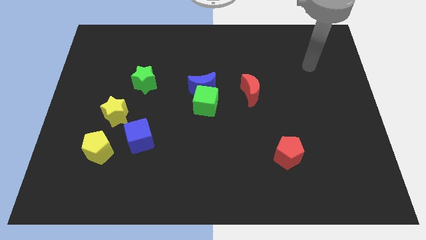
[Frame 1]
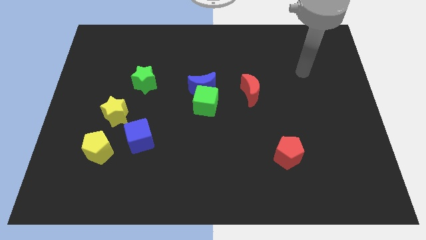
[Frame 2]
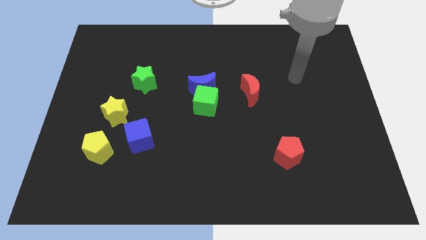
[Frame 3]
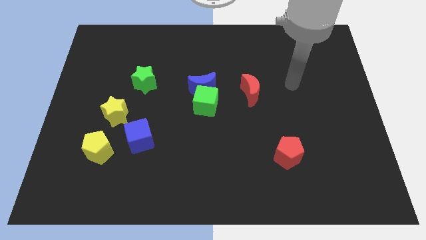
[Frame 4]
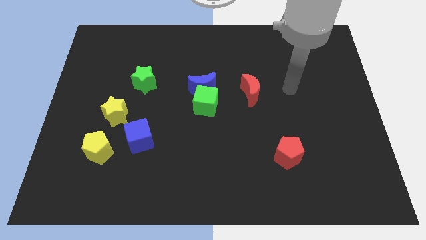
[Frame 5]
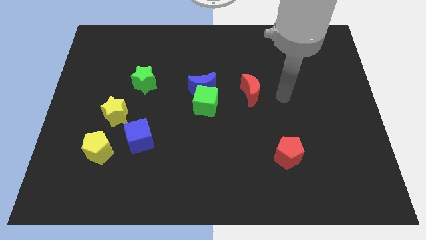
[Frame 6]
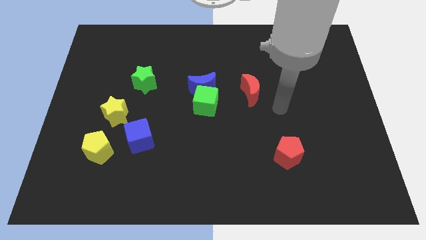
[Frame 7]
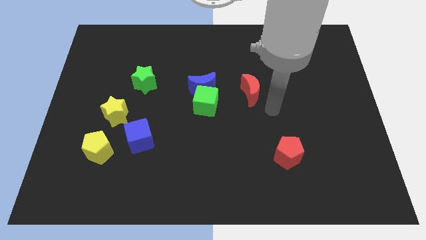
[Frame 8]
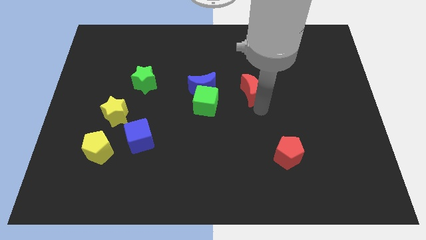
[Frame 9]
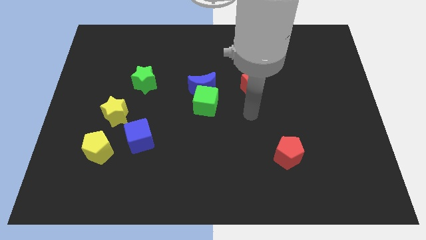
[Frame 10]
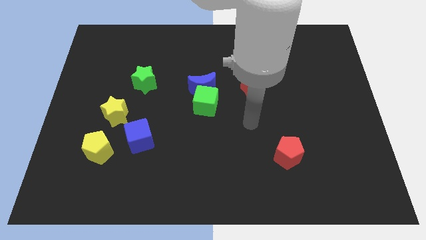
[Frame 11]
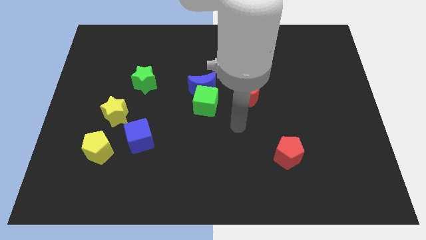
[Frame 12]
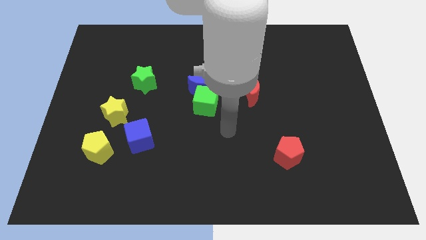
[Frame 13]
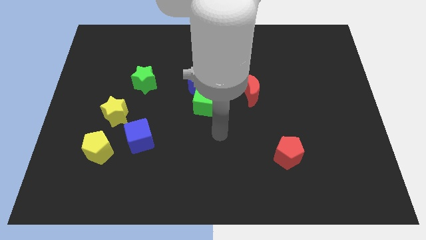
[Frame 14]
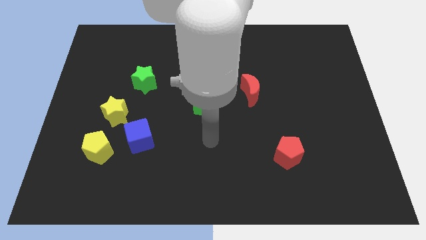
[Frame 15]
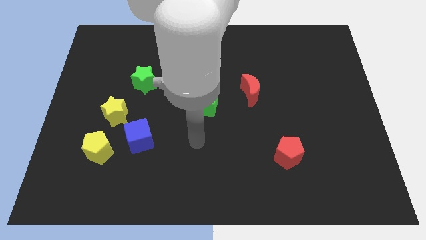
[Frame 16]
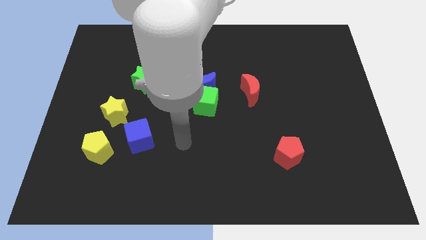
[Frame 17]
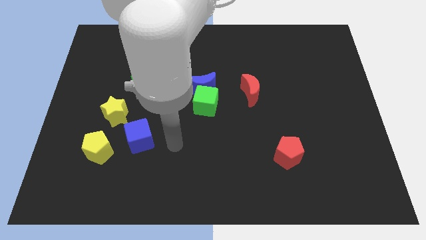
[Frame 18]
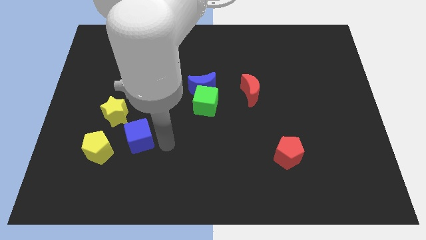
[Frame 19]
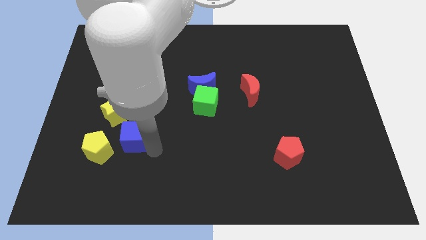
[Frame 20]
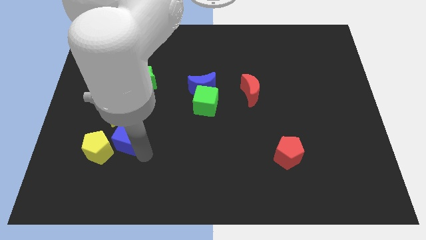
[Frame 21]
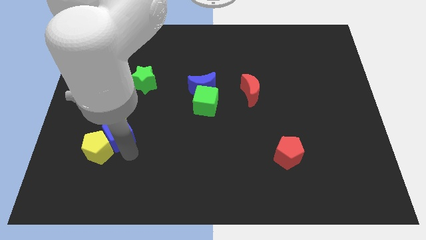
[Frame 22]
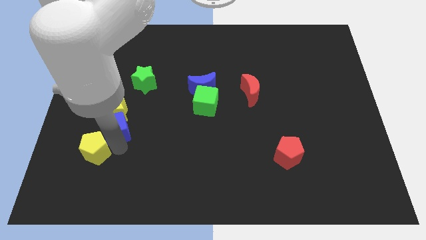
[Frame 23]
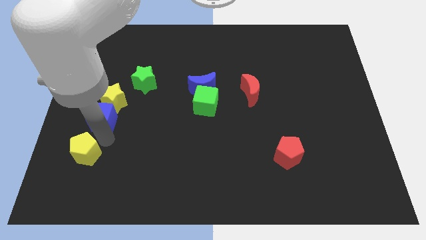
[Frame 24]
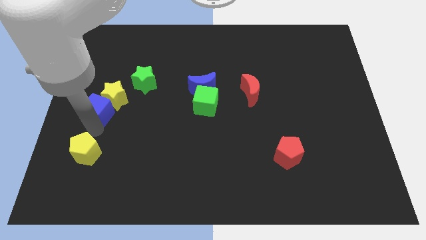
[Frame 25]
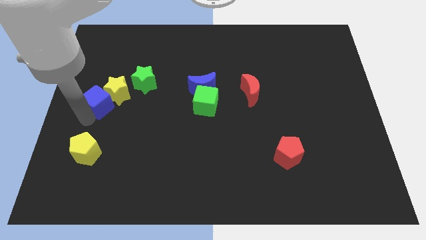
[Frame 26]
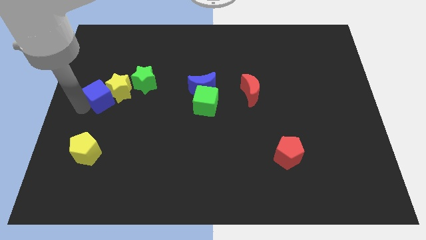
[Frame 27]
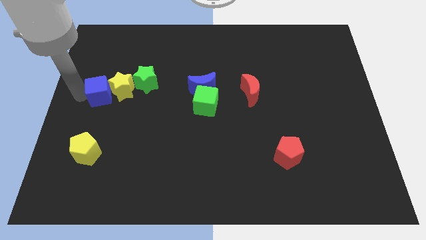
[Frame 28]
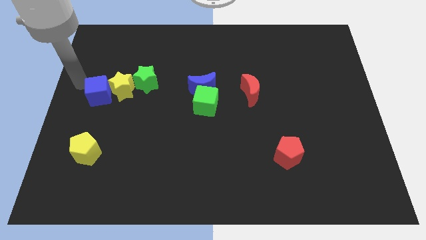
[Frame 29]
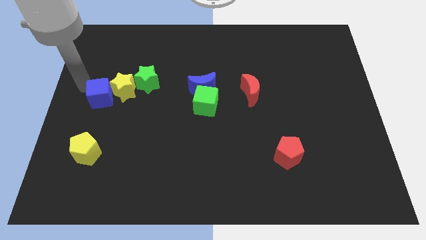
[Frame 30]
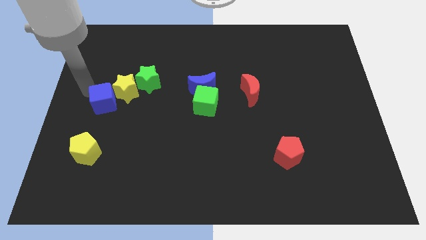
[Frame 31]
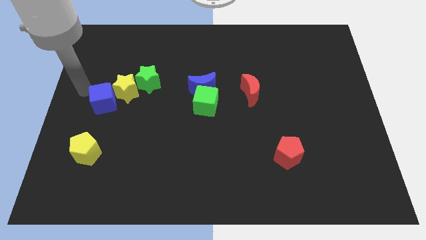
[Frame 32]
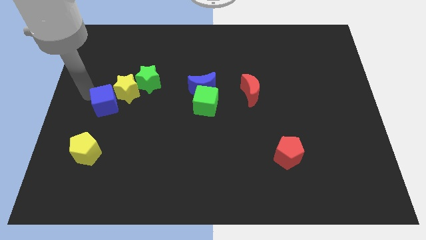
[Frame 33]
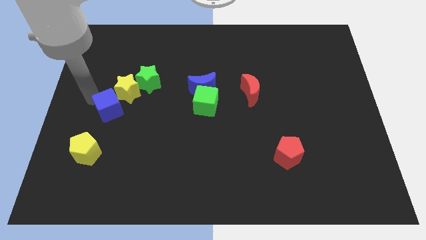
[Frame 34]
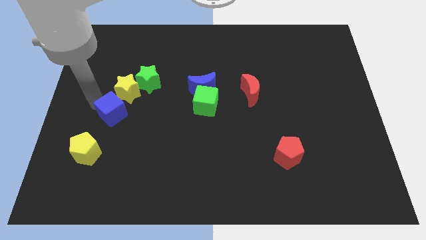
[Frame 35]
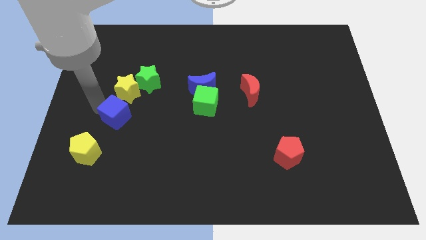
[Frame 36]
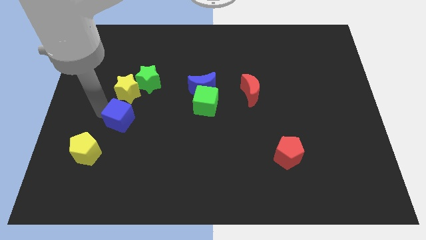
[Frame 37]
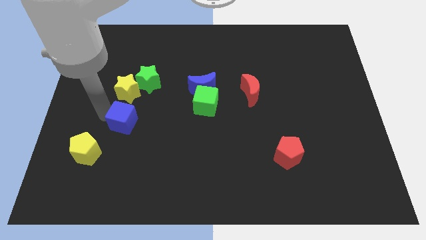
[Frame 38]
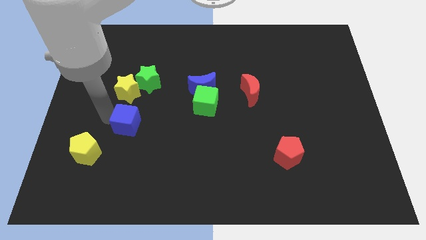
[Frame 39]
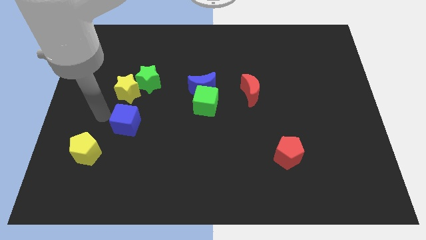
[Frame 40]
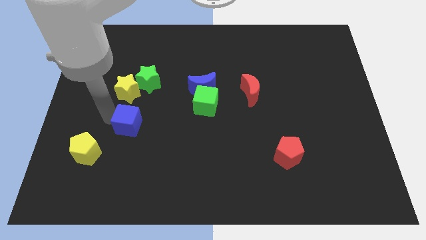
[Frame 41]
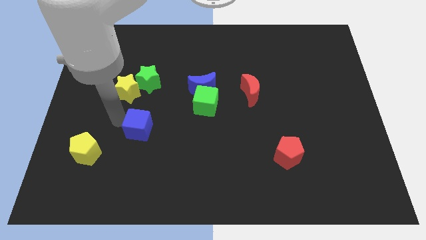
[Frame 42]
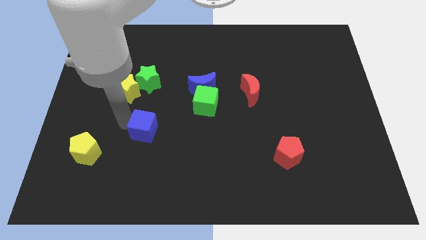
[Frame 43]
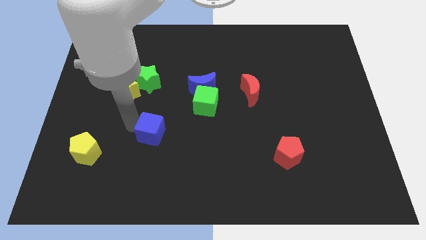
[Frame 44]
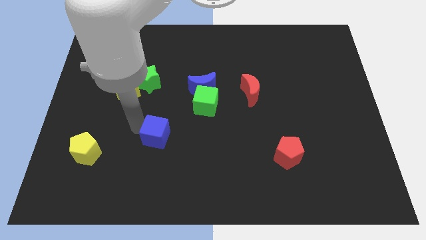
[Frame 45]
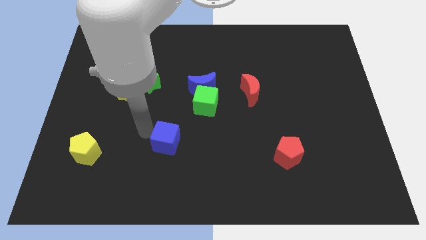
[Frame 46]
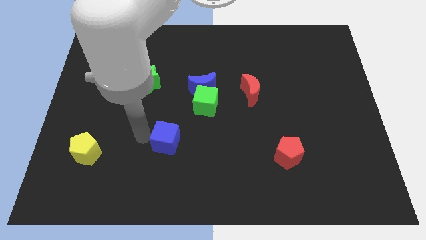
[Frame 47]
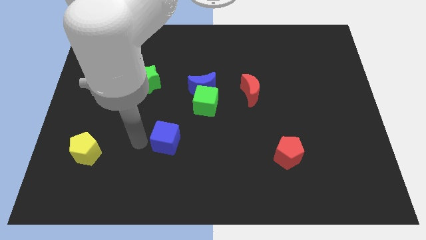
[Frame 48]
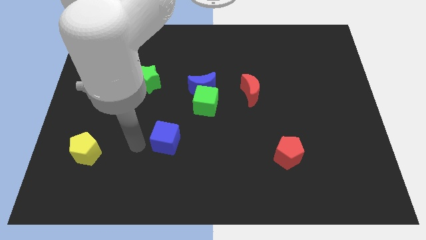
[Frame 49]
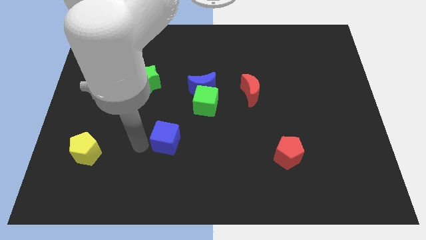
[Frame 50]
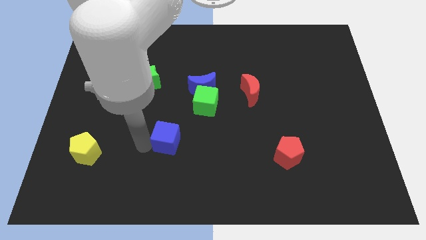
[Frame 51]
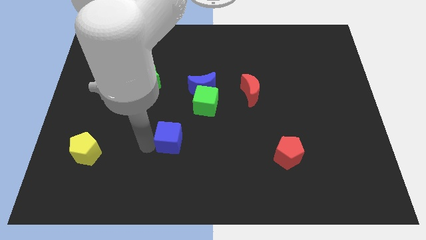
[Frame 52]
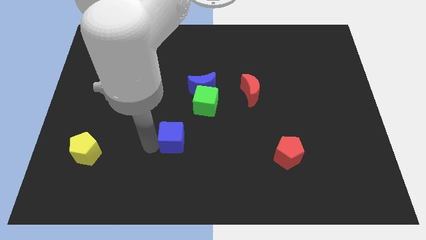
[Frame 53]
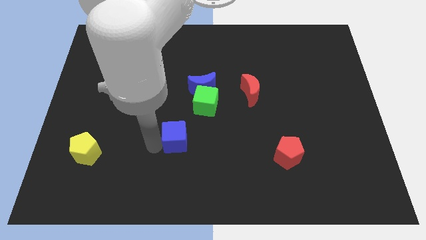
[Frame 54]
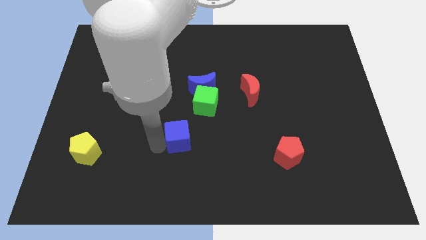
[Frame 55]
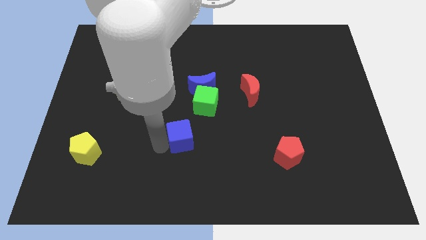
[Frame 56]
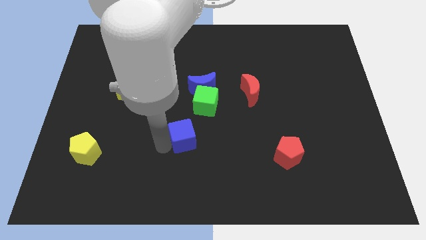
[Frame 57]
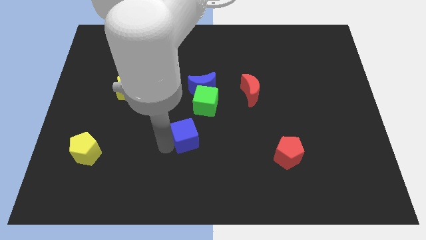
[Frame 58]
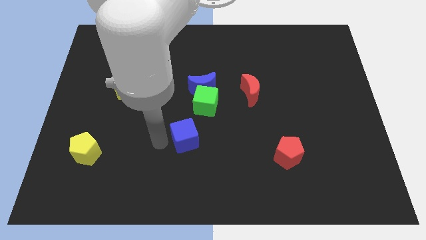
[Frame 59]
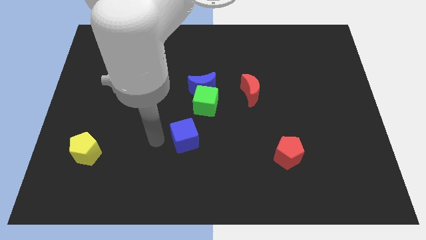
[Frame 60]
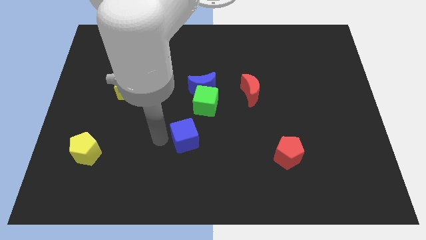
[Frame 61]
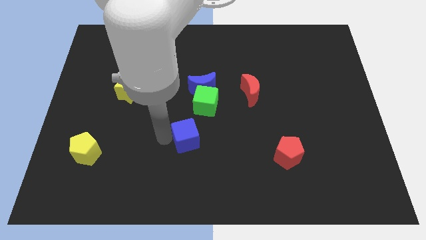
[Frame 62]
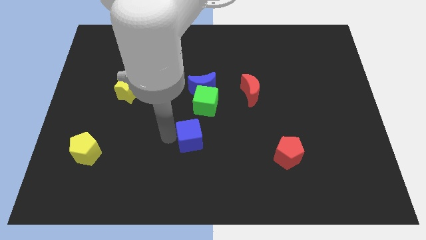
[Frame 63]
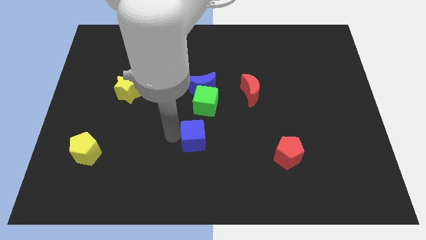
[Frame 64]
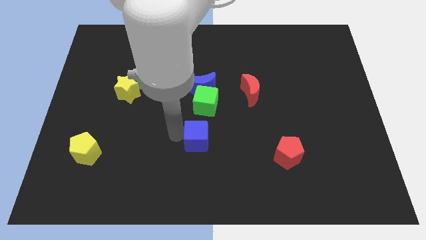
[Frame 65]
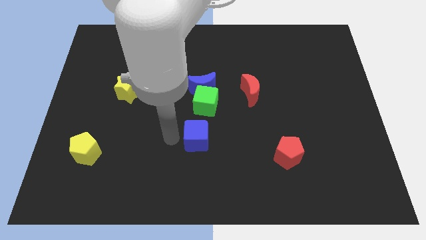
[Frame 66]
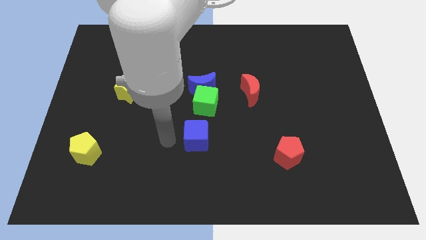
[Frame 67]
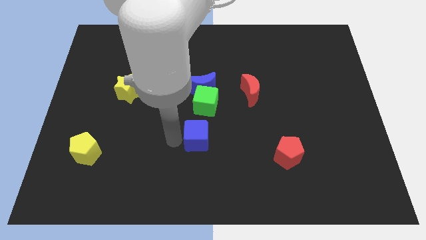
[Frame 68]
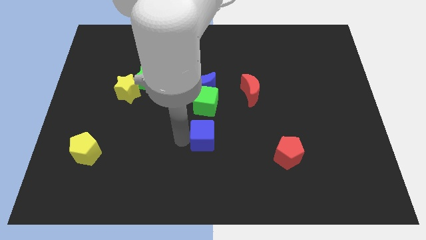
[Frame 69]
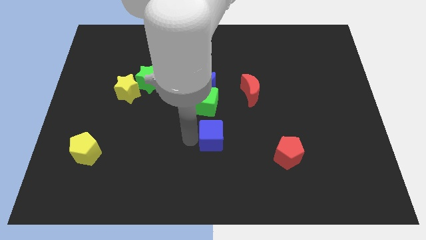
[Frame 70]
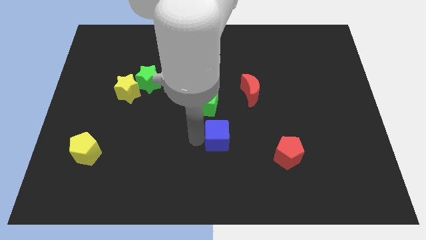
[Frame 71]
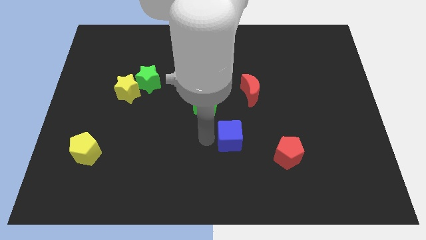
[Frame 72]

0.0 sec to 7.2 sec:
slide the blue cube to the right

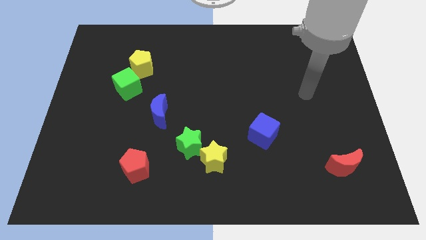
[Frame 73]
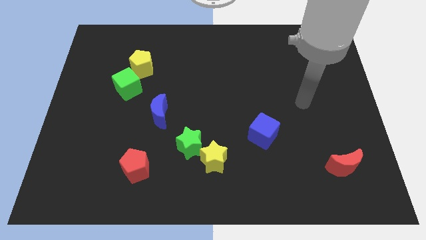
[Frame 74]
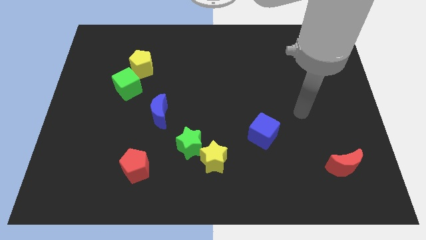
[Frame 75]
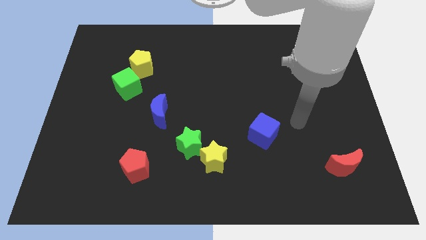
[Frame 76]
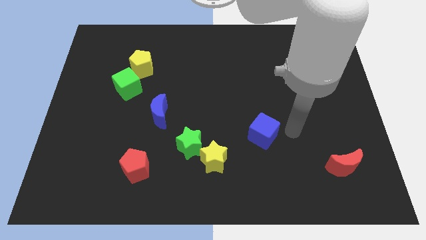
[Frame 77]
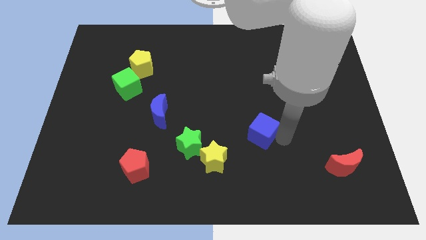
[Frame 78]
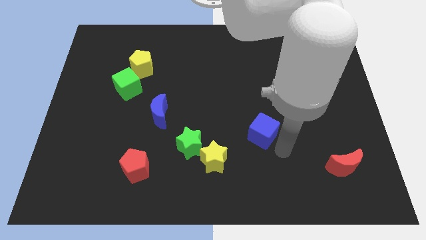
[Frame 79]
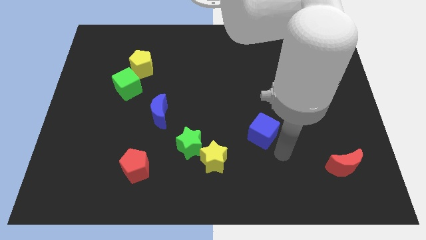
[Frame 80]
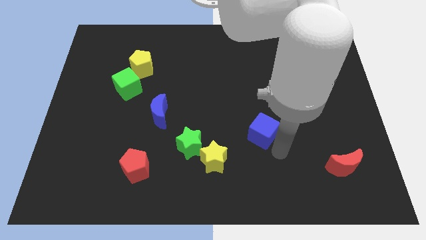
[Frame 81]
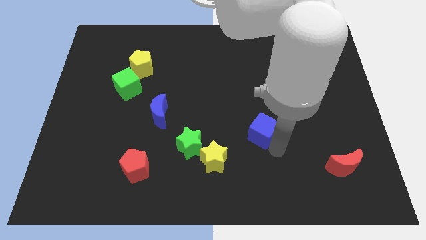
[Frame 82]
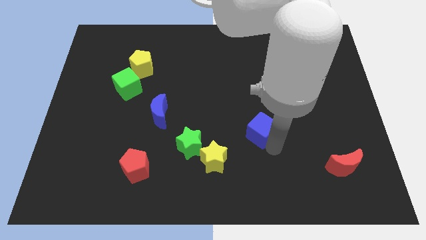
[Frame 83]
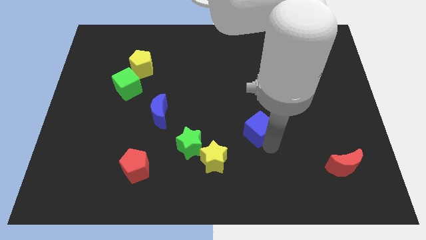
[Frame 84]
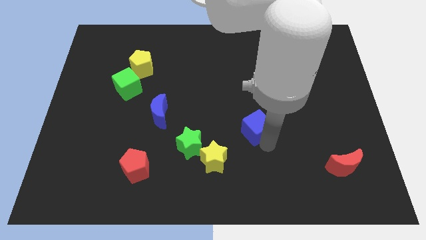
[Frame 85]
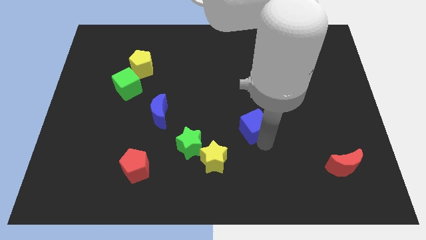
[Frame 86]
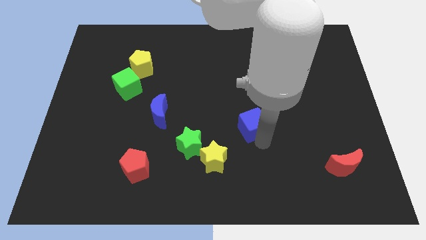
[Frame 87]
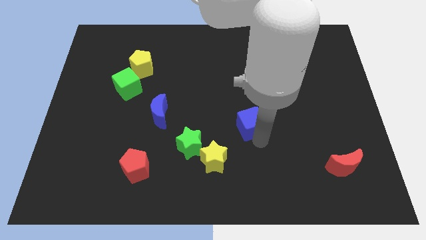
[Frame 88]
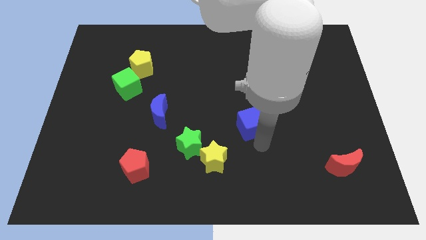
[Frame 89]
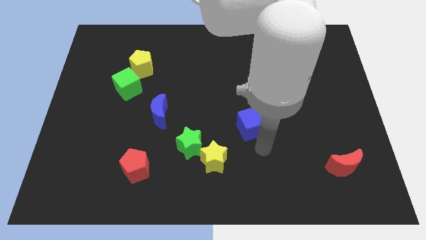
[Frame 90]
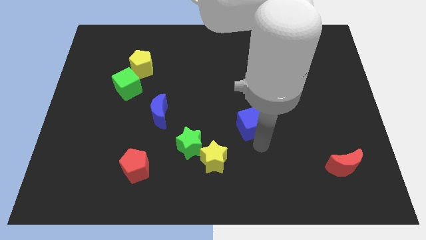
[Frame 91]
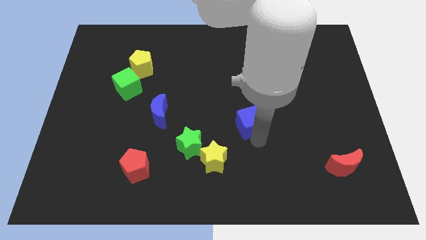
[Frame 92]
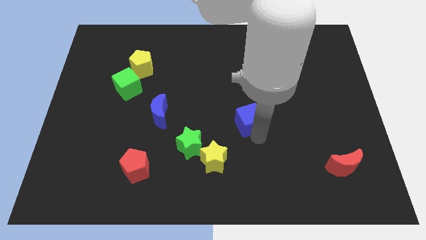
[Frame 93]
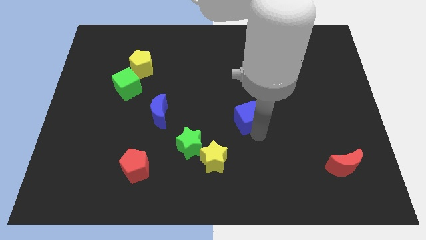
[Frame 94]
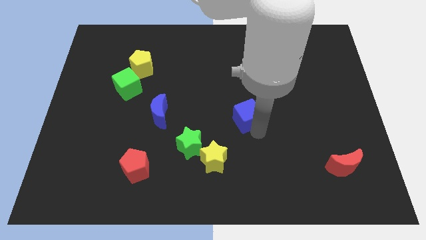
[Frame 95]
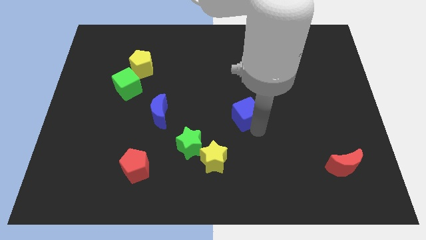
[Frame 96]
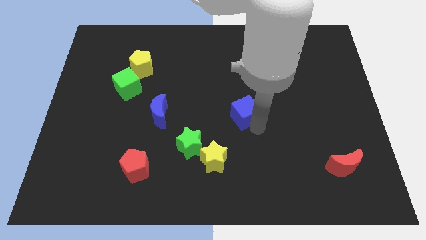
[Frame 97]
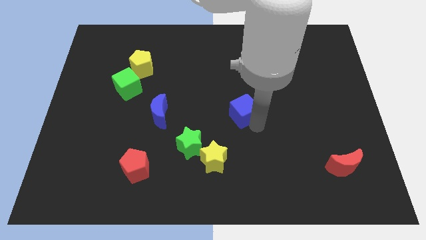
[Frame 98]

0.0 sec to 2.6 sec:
move the blue cube a bit upwards and then left
